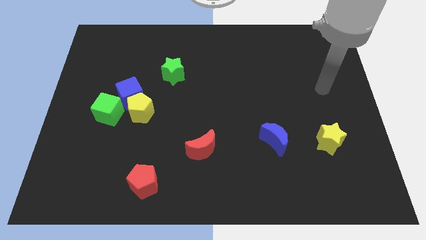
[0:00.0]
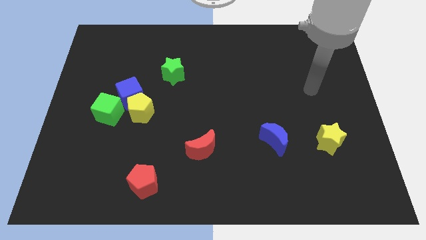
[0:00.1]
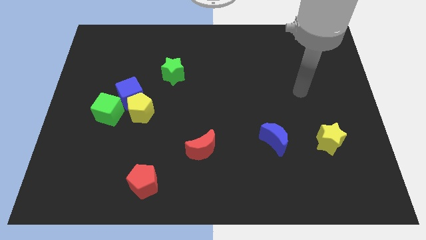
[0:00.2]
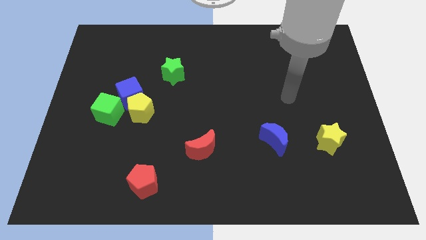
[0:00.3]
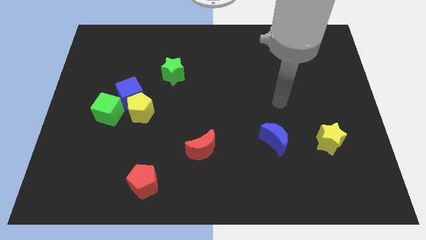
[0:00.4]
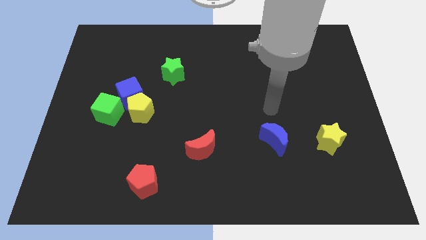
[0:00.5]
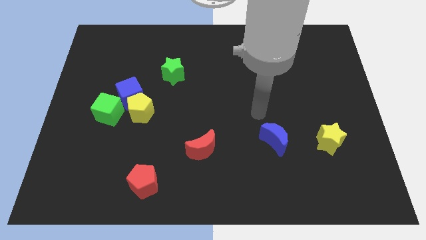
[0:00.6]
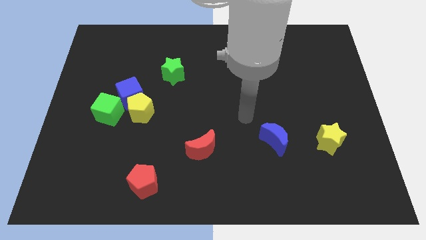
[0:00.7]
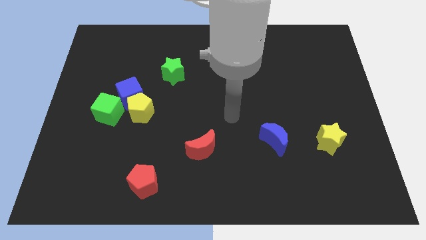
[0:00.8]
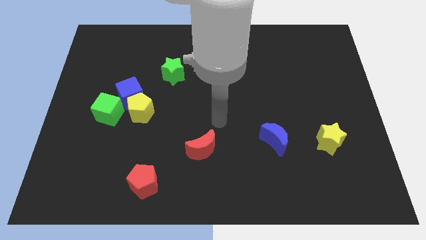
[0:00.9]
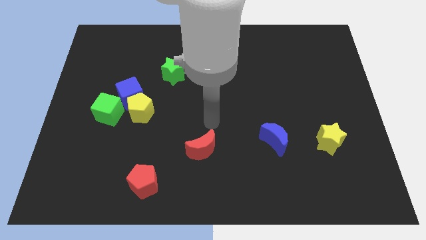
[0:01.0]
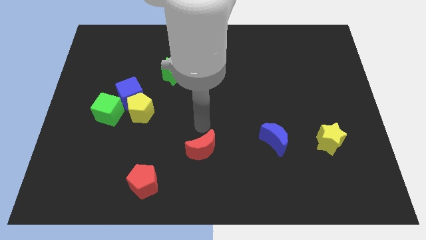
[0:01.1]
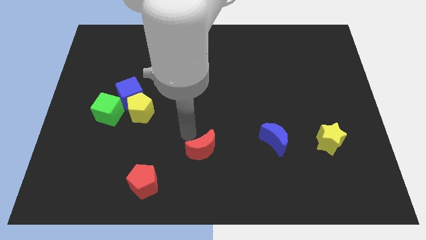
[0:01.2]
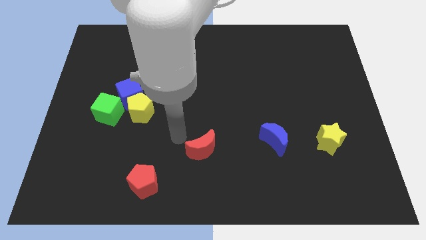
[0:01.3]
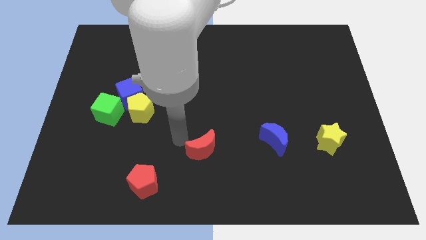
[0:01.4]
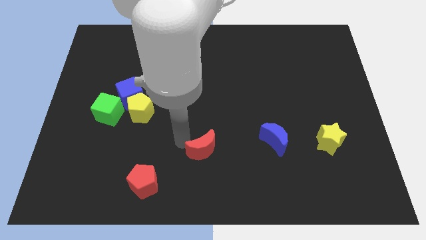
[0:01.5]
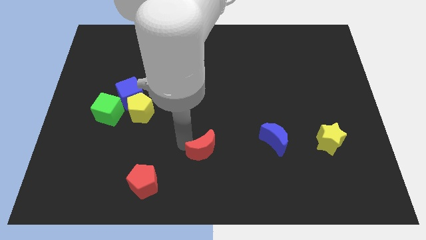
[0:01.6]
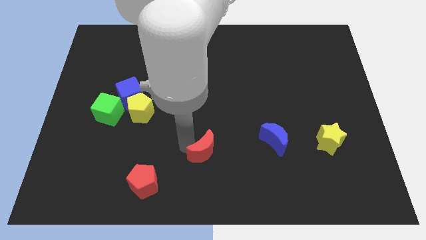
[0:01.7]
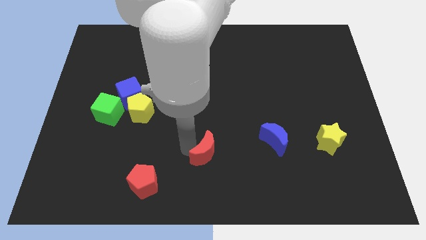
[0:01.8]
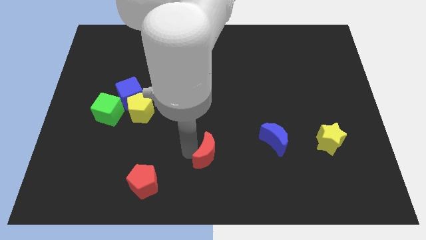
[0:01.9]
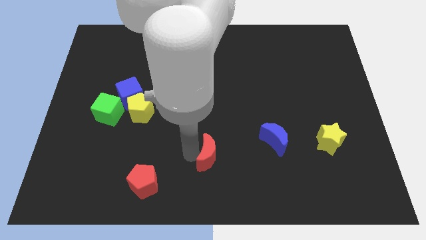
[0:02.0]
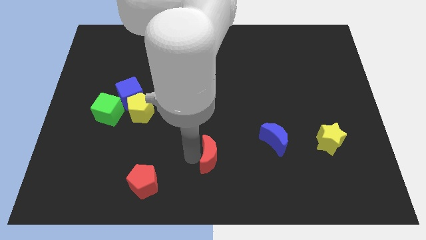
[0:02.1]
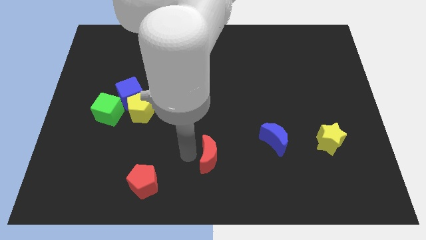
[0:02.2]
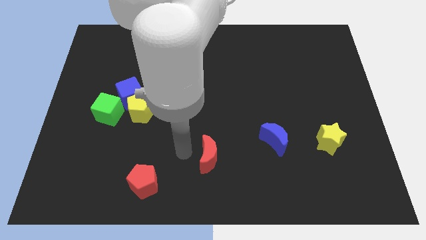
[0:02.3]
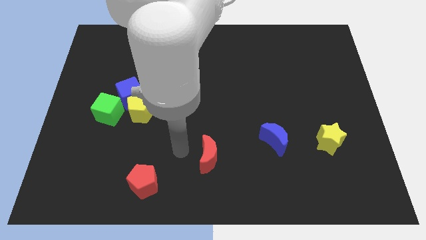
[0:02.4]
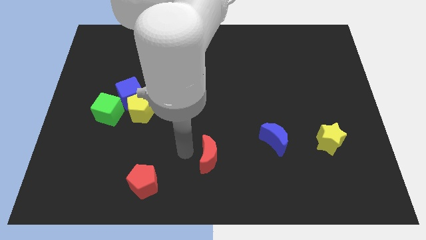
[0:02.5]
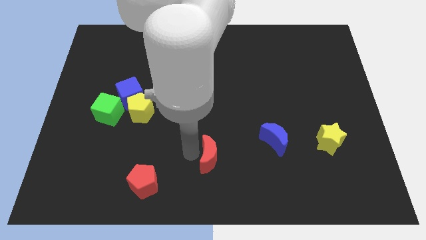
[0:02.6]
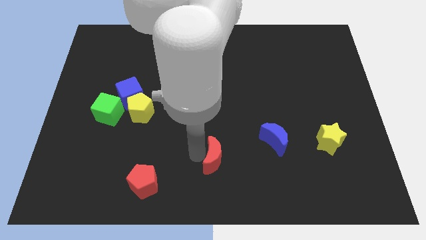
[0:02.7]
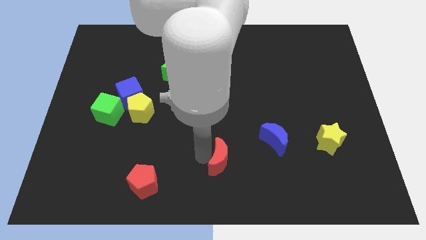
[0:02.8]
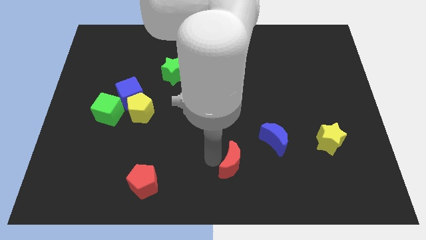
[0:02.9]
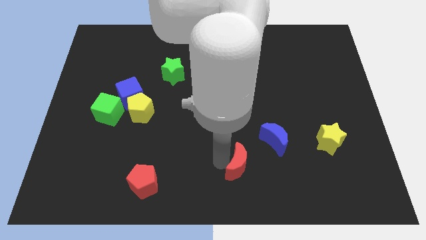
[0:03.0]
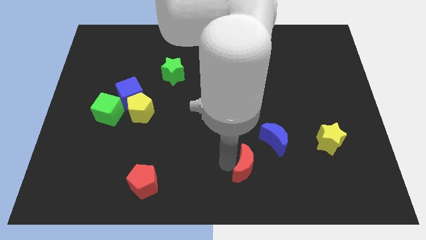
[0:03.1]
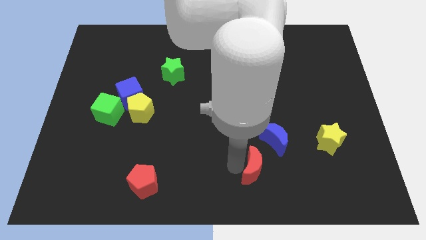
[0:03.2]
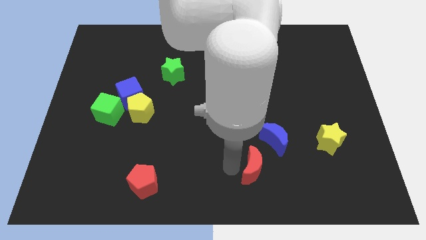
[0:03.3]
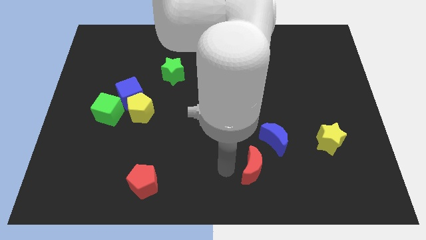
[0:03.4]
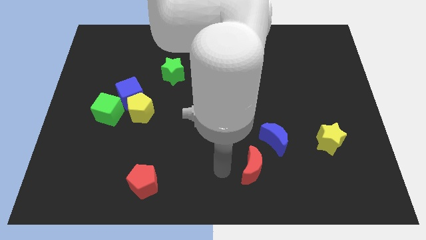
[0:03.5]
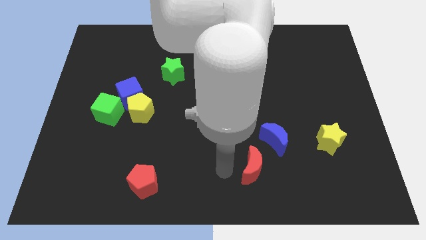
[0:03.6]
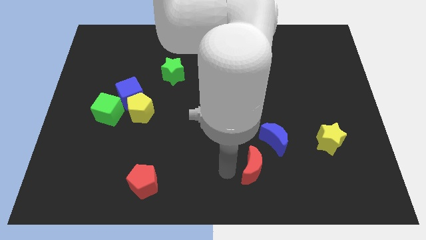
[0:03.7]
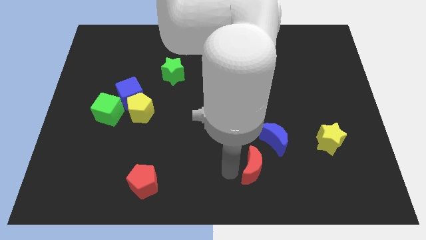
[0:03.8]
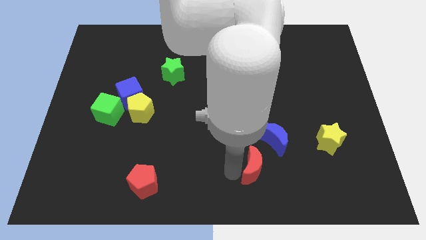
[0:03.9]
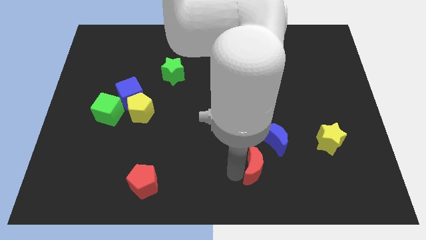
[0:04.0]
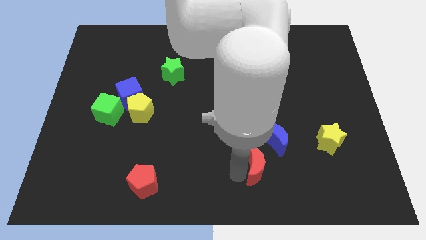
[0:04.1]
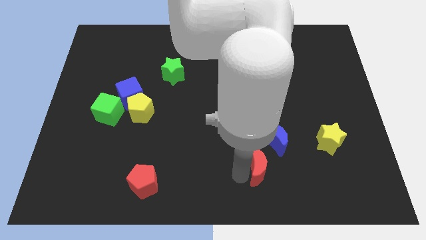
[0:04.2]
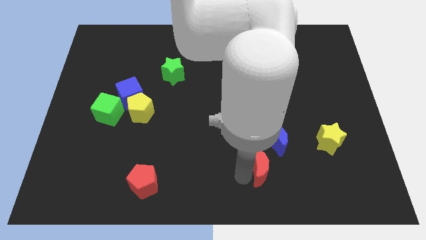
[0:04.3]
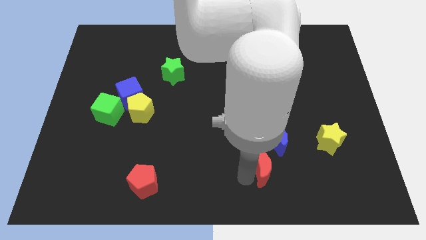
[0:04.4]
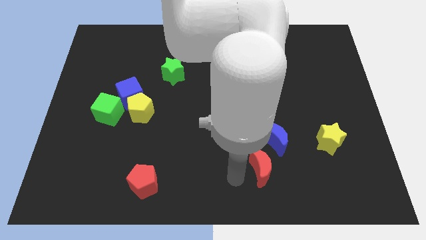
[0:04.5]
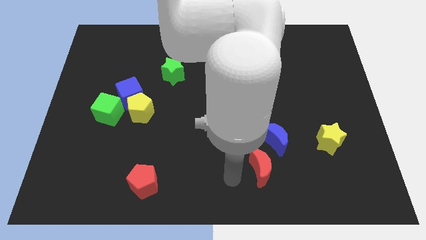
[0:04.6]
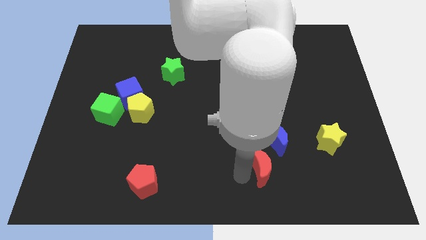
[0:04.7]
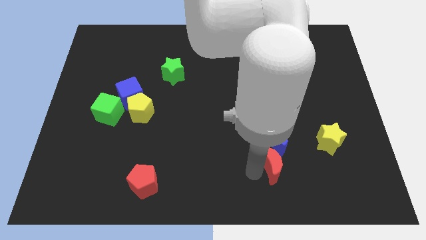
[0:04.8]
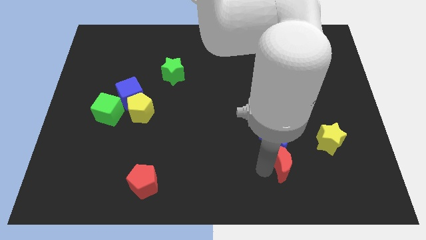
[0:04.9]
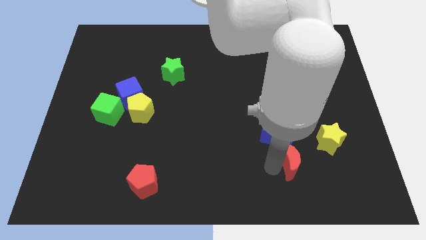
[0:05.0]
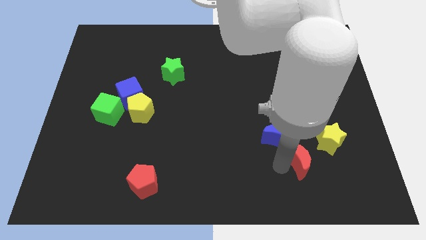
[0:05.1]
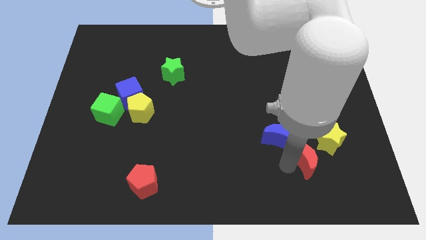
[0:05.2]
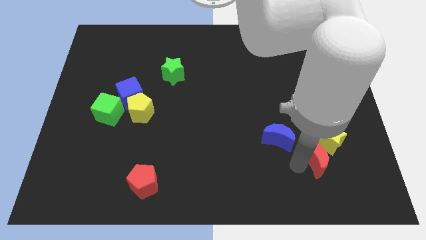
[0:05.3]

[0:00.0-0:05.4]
move the red moon close to the yellow star

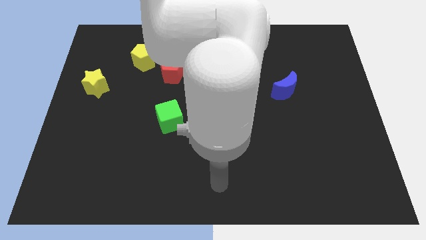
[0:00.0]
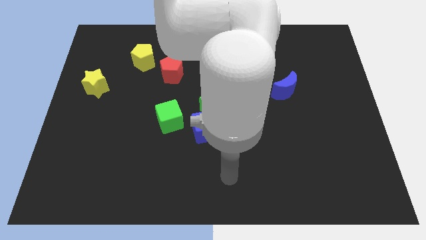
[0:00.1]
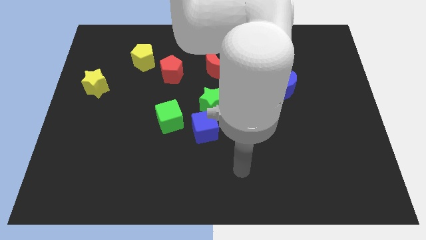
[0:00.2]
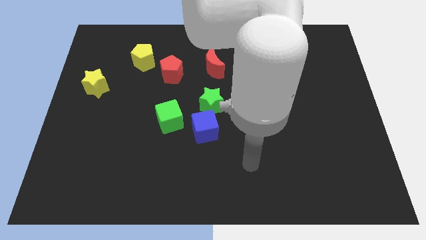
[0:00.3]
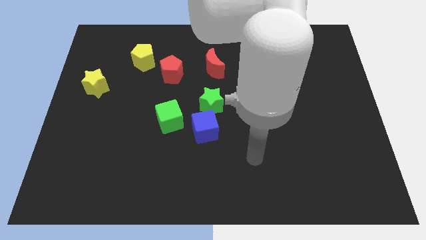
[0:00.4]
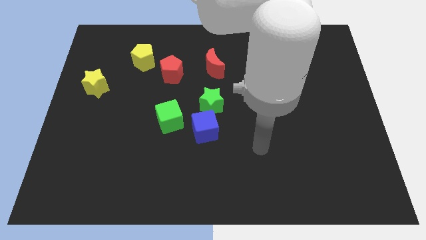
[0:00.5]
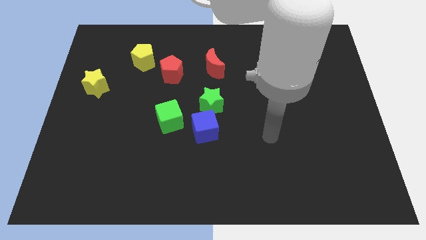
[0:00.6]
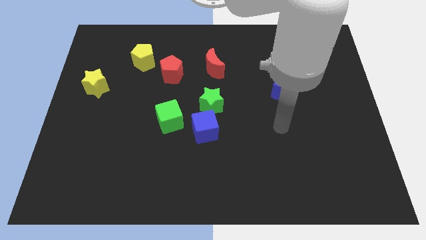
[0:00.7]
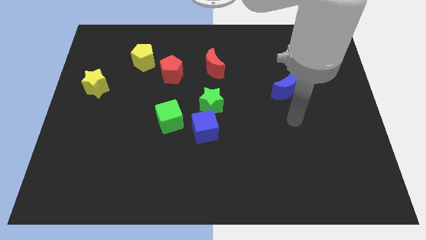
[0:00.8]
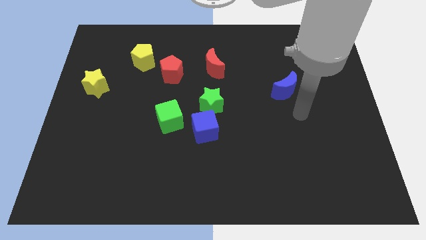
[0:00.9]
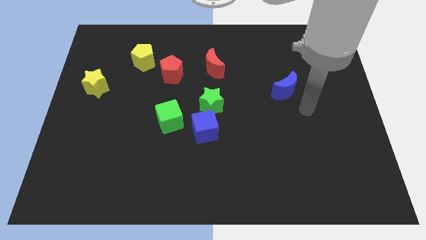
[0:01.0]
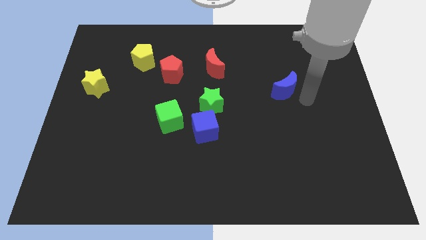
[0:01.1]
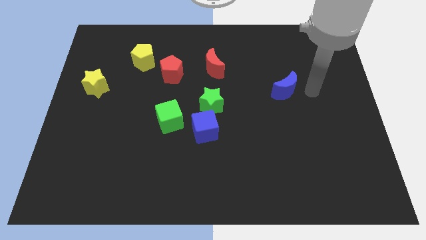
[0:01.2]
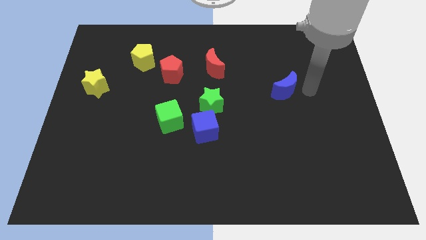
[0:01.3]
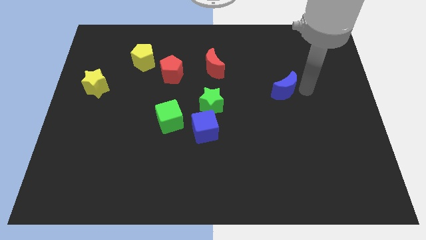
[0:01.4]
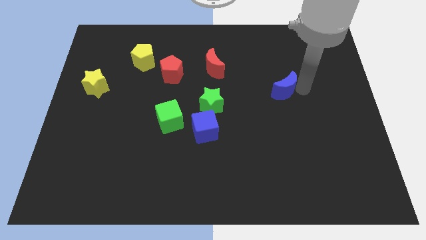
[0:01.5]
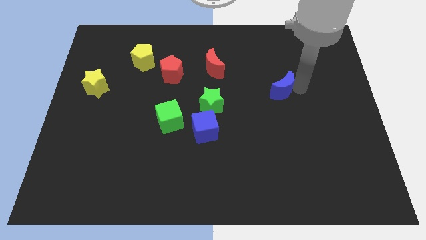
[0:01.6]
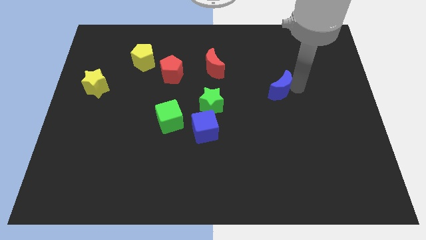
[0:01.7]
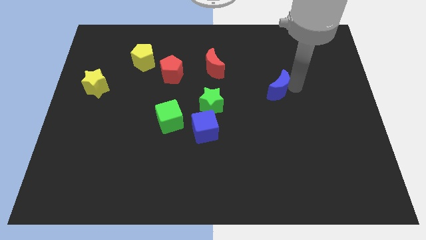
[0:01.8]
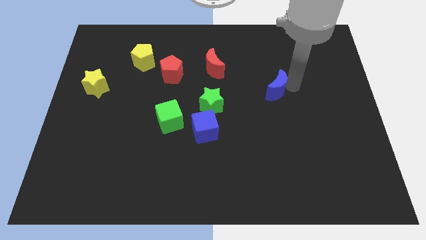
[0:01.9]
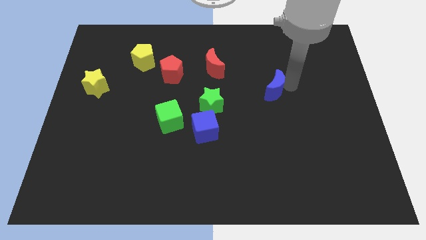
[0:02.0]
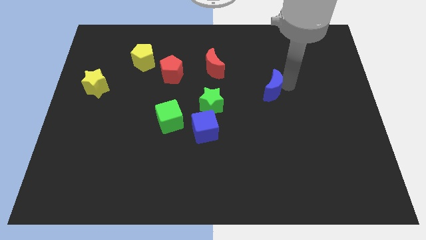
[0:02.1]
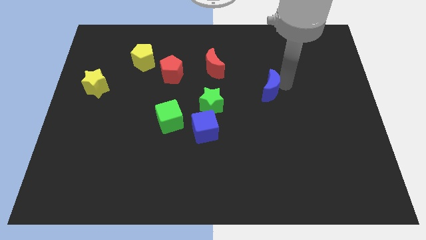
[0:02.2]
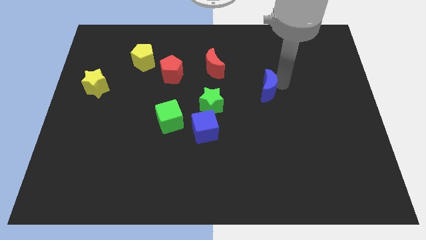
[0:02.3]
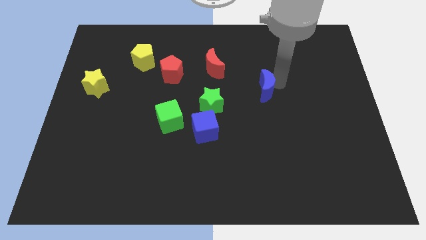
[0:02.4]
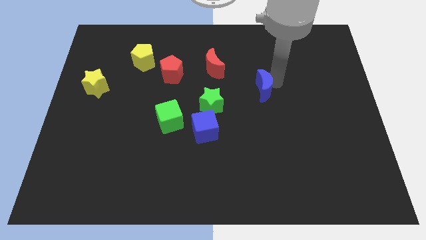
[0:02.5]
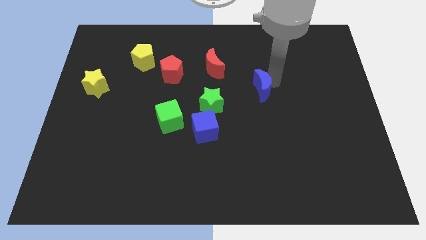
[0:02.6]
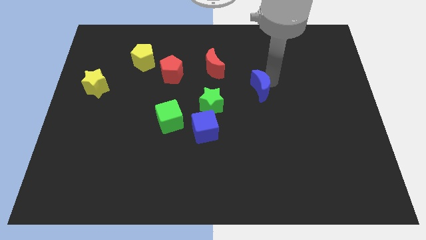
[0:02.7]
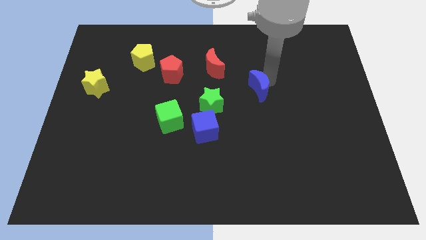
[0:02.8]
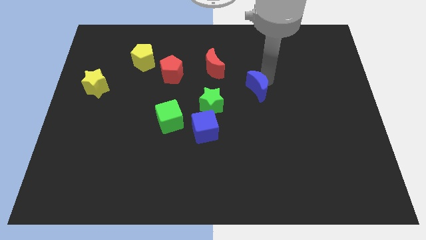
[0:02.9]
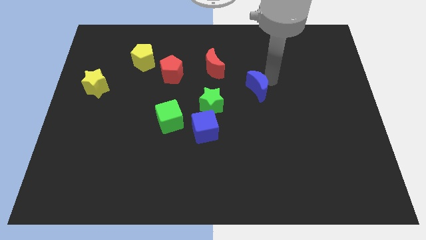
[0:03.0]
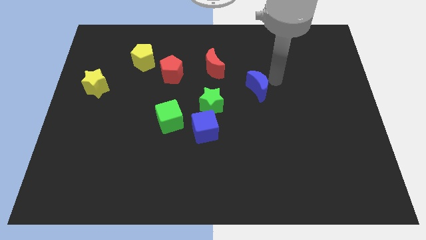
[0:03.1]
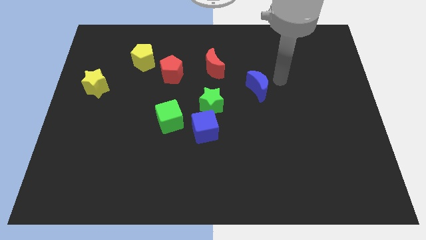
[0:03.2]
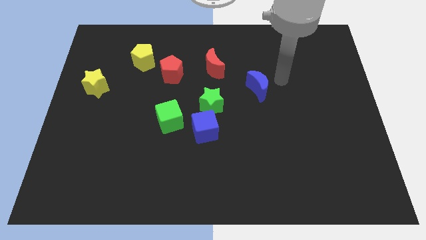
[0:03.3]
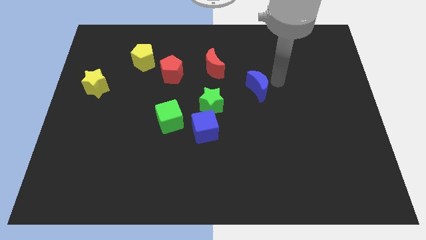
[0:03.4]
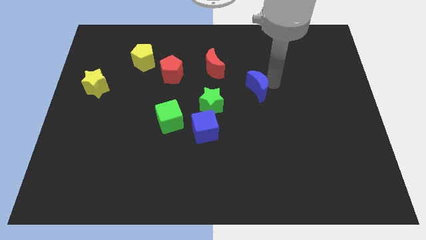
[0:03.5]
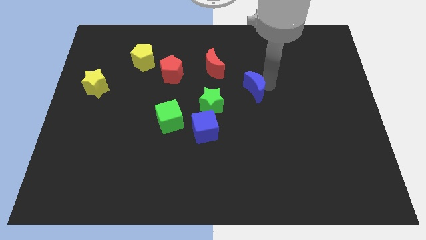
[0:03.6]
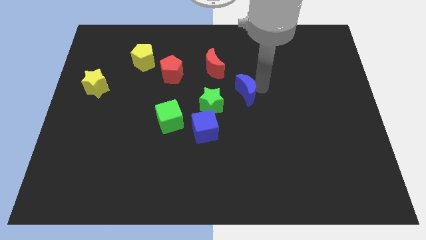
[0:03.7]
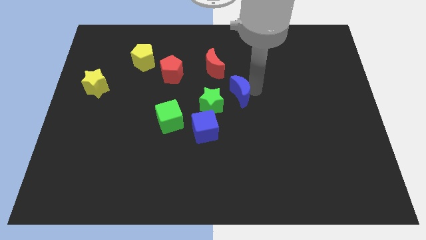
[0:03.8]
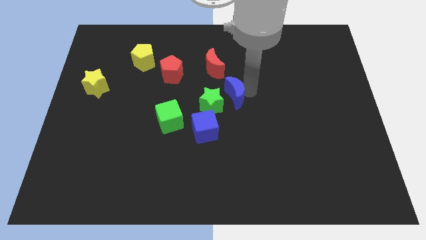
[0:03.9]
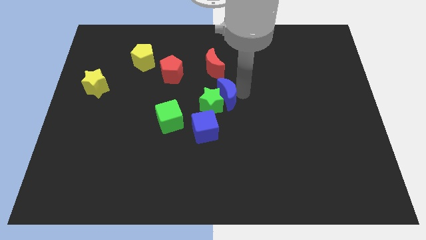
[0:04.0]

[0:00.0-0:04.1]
slide the blue moon to the green star
